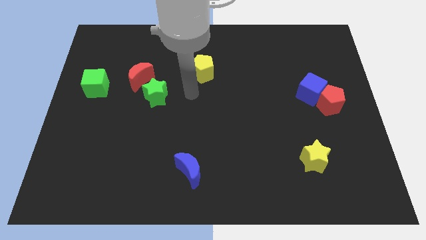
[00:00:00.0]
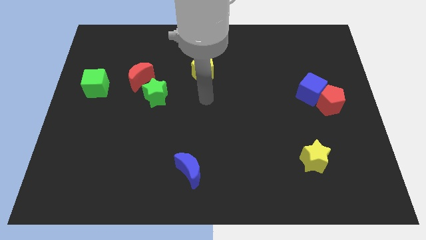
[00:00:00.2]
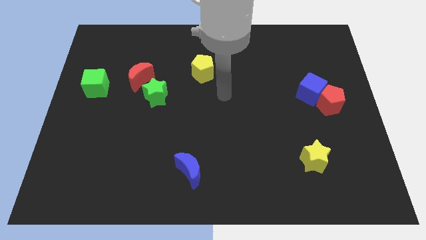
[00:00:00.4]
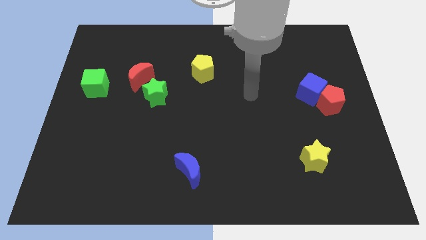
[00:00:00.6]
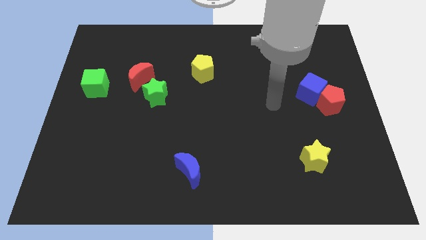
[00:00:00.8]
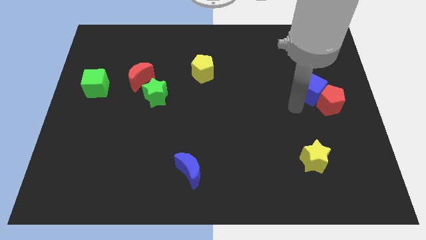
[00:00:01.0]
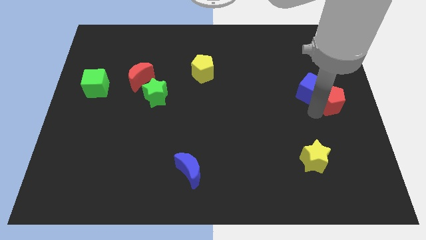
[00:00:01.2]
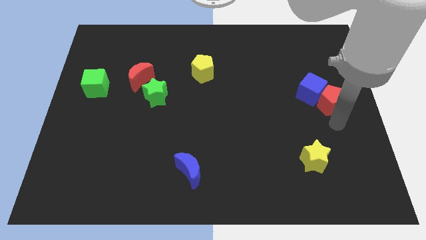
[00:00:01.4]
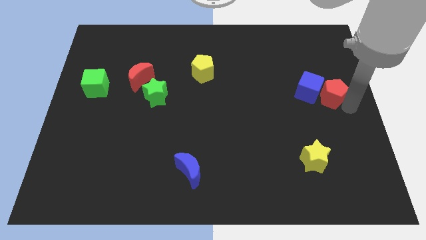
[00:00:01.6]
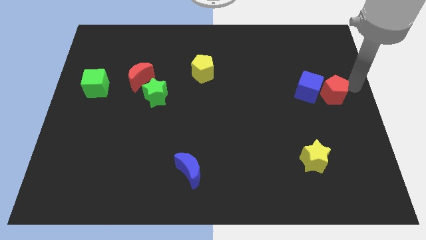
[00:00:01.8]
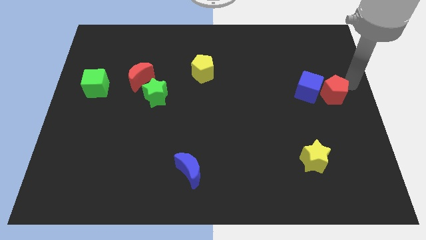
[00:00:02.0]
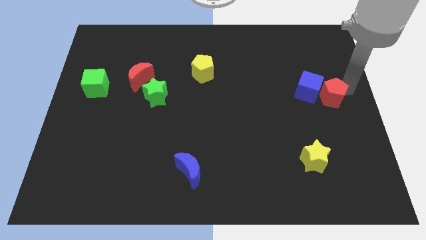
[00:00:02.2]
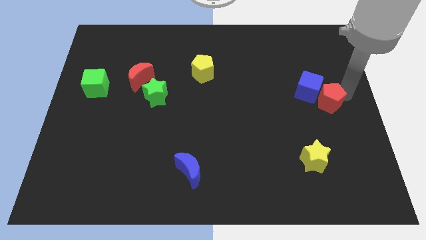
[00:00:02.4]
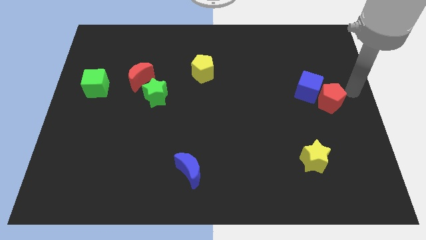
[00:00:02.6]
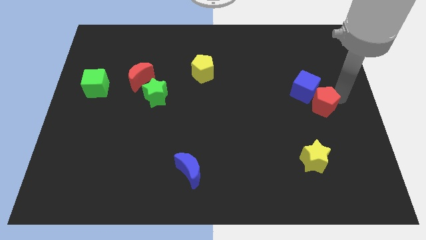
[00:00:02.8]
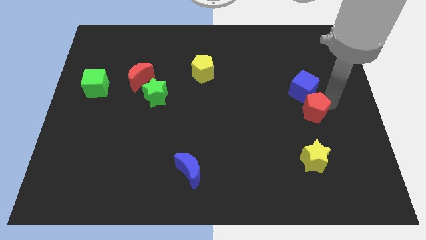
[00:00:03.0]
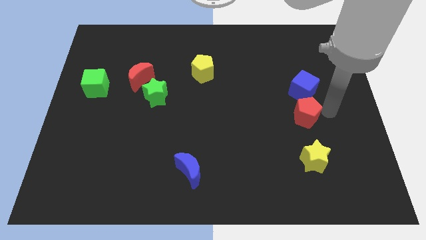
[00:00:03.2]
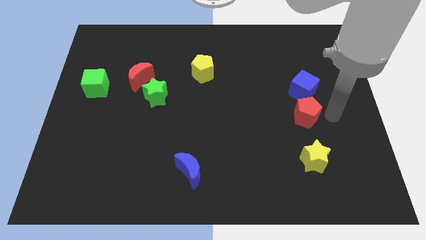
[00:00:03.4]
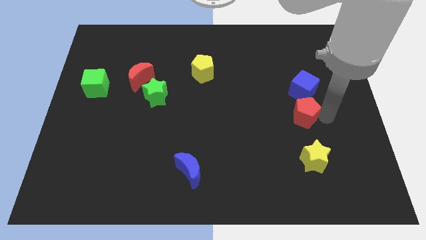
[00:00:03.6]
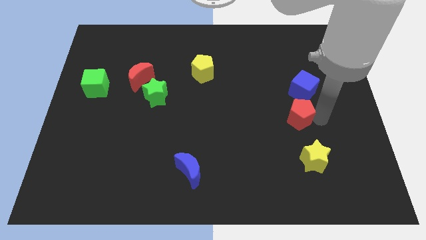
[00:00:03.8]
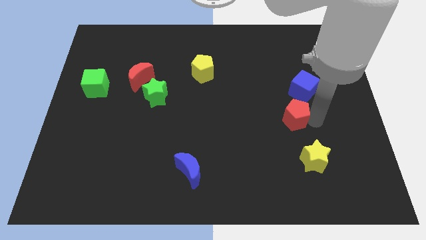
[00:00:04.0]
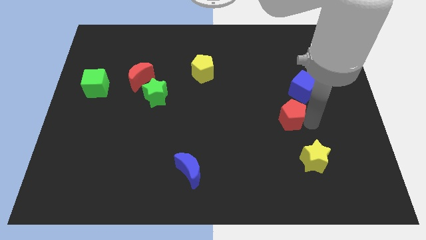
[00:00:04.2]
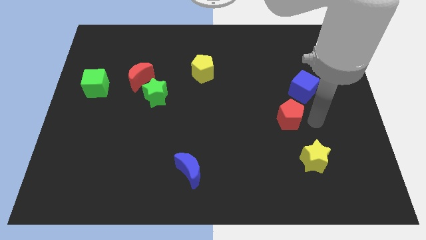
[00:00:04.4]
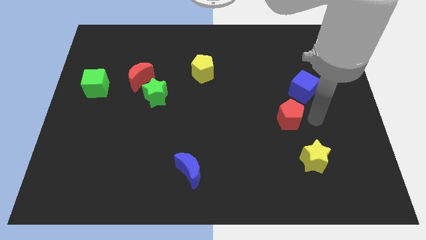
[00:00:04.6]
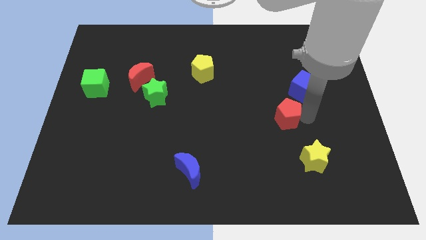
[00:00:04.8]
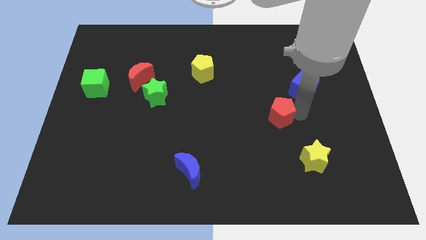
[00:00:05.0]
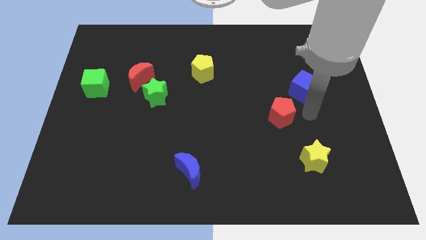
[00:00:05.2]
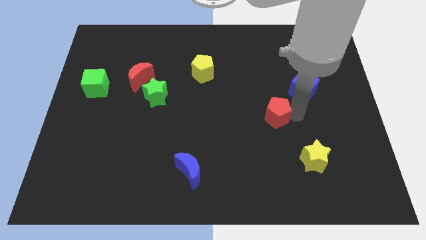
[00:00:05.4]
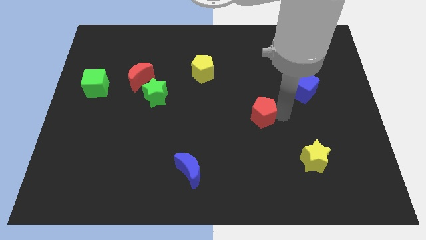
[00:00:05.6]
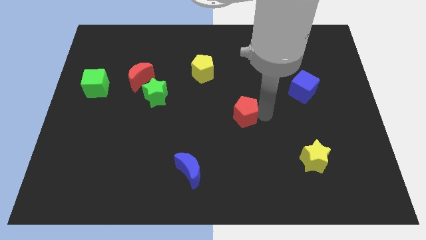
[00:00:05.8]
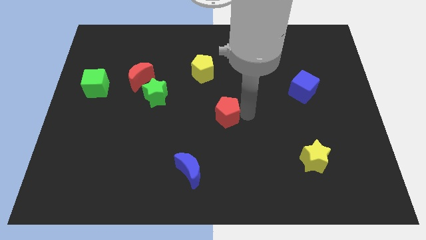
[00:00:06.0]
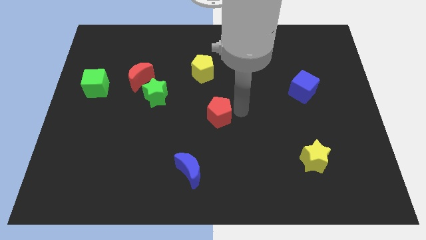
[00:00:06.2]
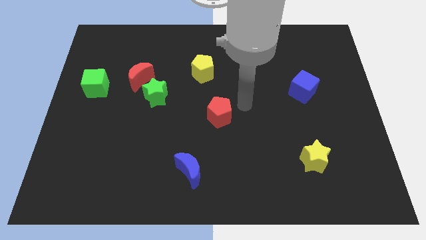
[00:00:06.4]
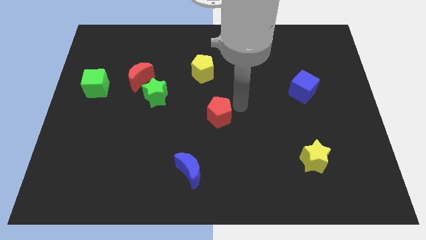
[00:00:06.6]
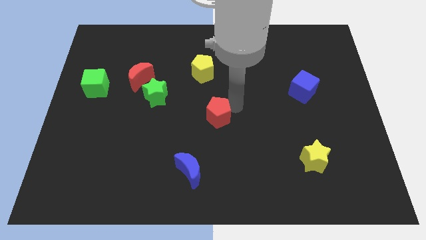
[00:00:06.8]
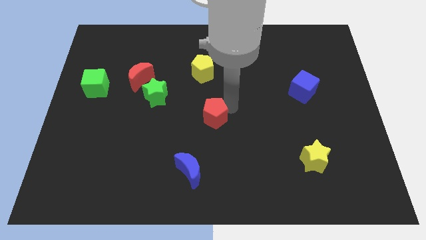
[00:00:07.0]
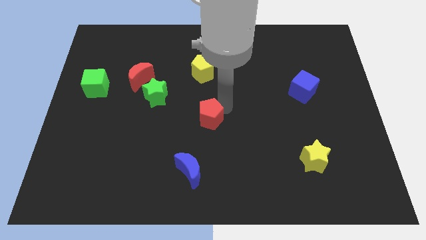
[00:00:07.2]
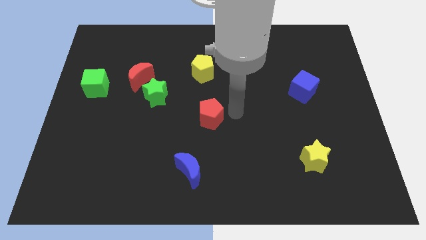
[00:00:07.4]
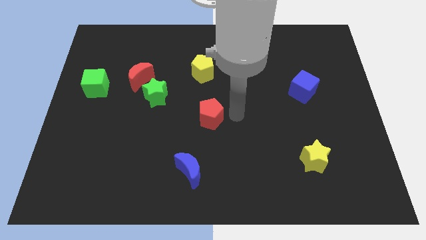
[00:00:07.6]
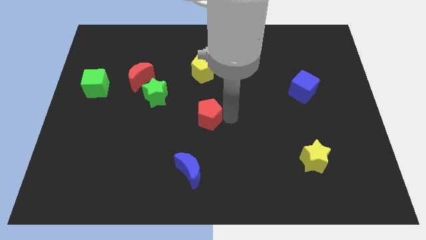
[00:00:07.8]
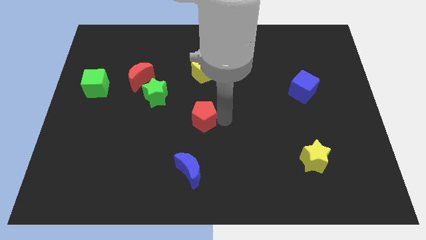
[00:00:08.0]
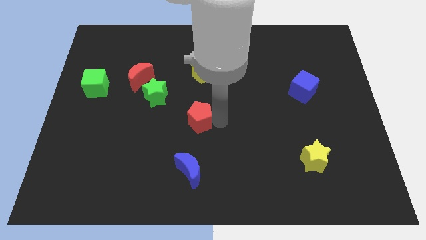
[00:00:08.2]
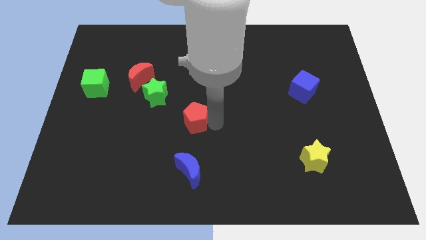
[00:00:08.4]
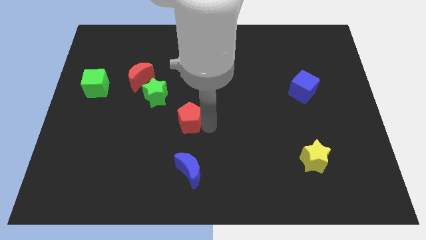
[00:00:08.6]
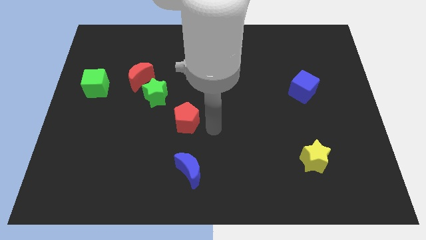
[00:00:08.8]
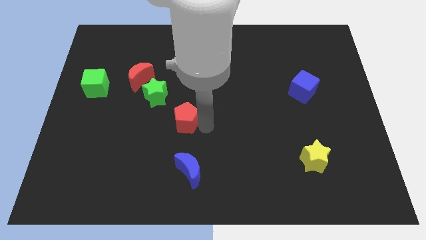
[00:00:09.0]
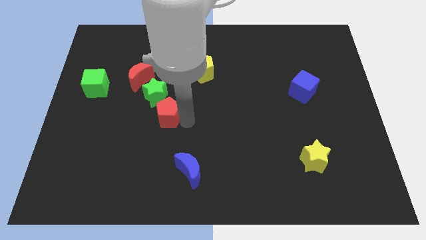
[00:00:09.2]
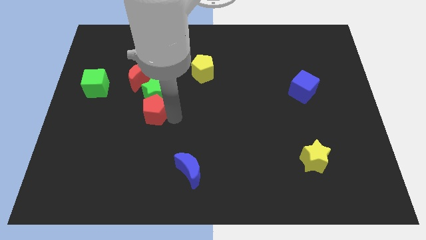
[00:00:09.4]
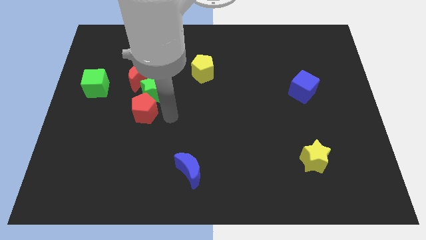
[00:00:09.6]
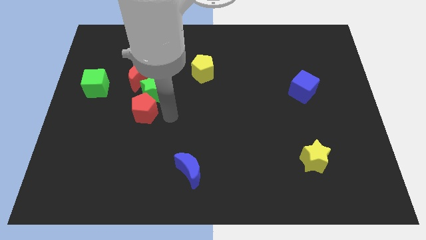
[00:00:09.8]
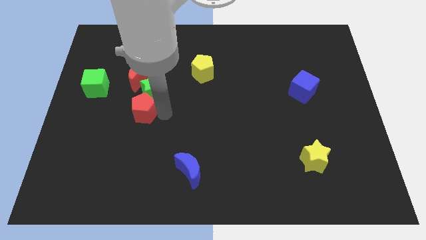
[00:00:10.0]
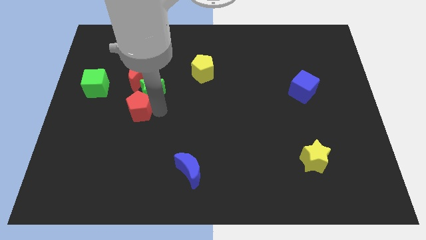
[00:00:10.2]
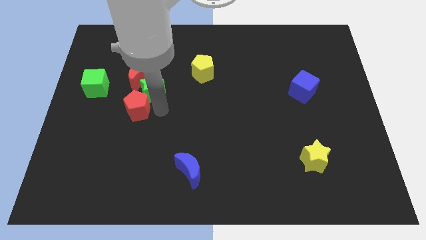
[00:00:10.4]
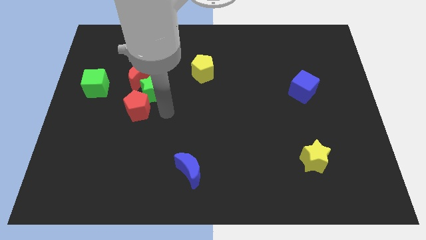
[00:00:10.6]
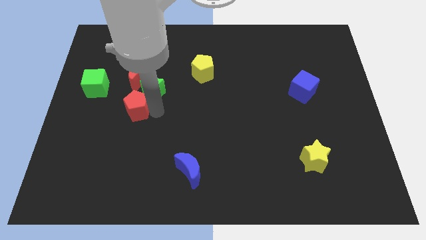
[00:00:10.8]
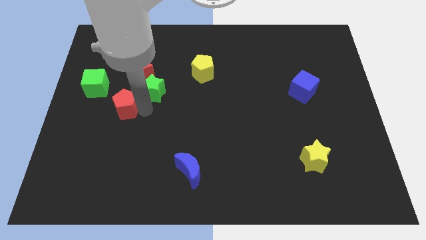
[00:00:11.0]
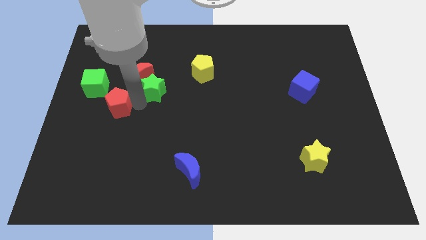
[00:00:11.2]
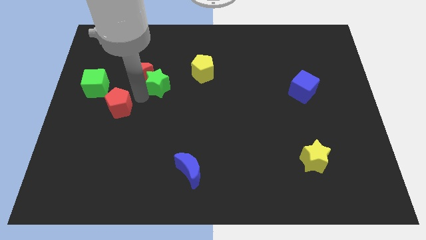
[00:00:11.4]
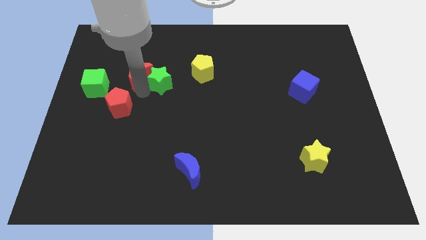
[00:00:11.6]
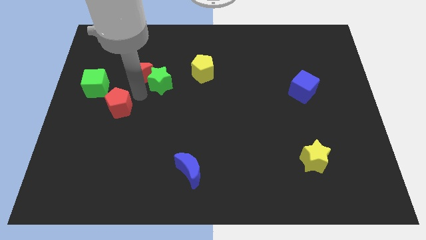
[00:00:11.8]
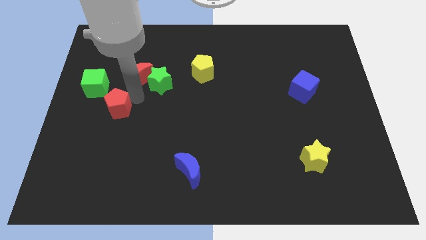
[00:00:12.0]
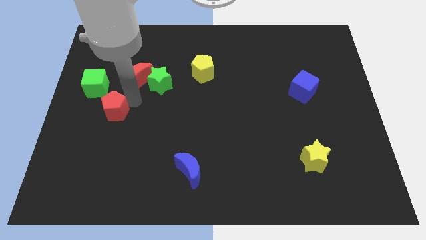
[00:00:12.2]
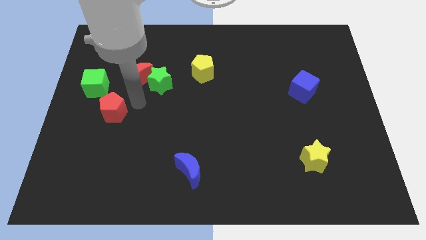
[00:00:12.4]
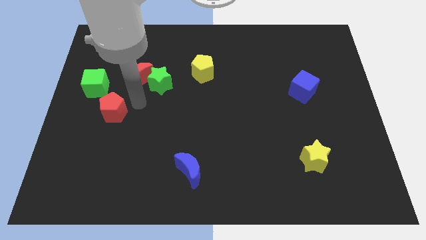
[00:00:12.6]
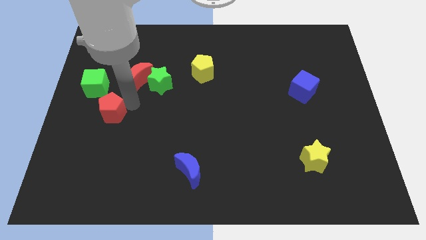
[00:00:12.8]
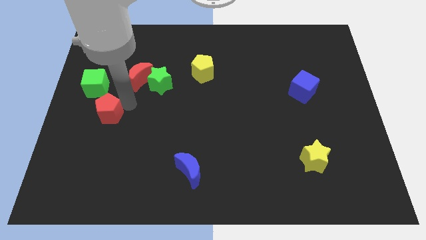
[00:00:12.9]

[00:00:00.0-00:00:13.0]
move the red pentagon below the green cube
